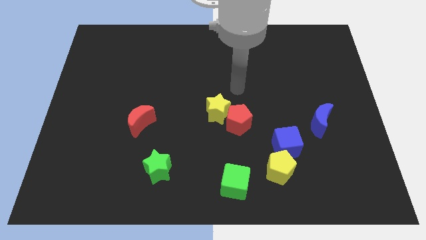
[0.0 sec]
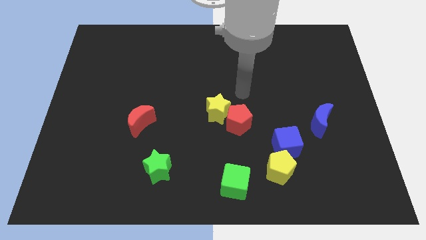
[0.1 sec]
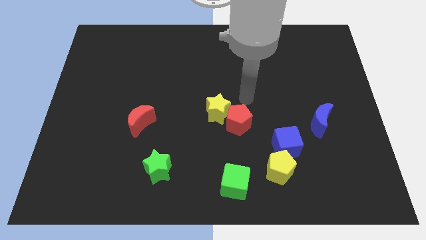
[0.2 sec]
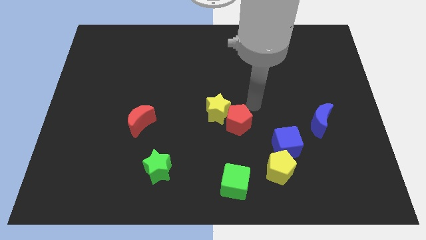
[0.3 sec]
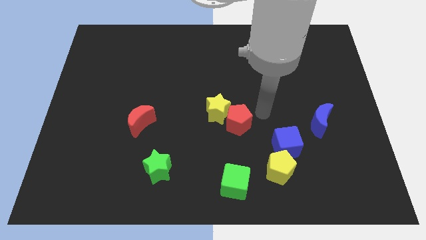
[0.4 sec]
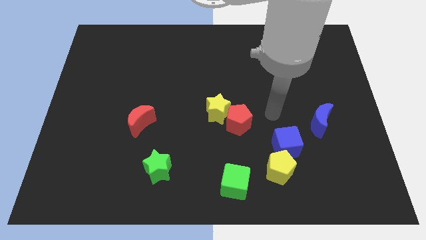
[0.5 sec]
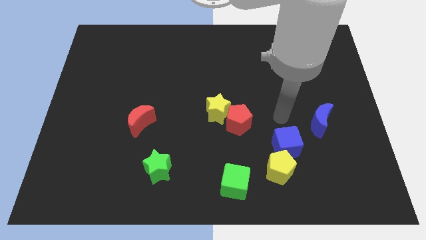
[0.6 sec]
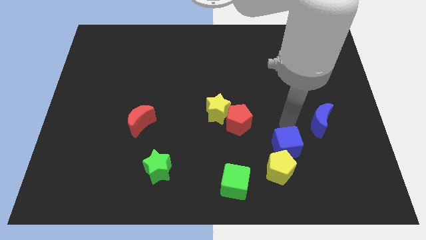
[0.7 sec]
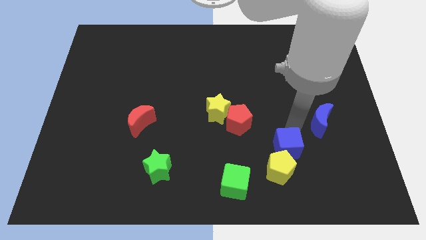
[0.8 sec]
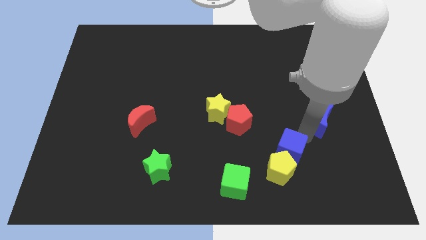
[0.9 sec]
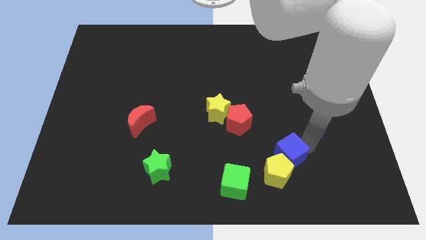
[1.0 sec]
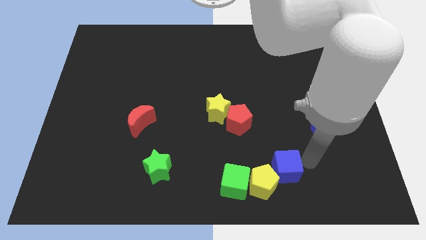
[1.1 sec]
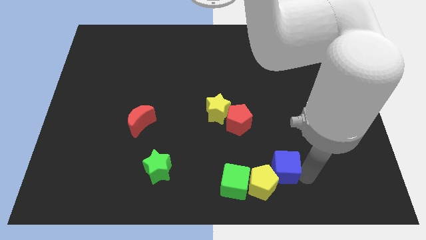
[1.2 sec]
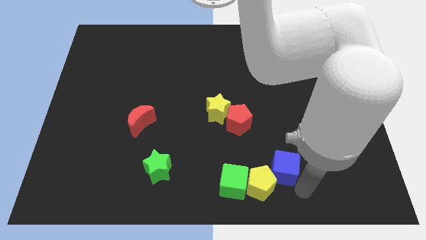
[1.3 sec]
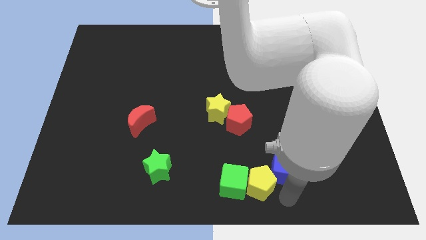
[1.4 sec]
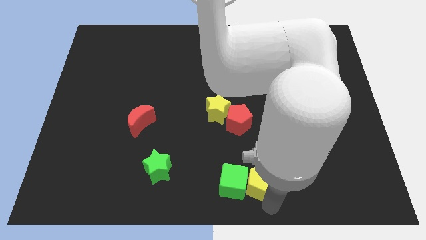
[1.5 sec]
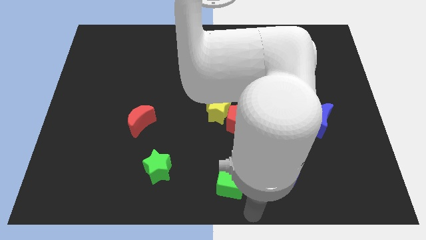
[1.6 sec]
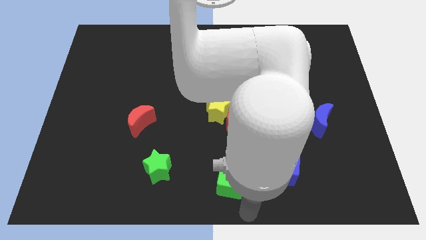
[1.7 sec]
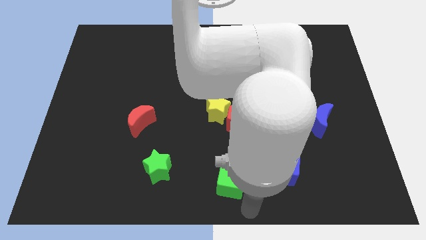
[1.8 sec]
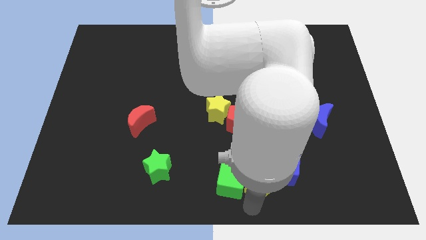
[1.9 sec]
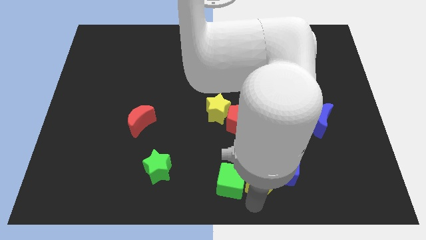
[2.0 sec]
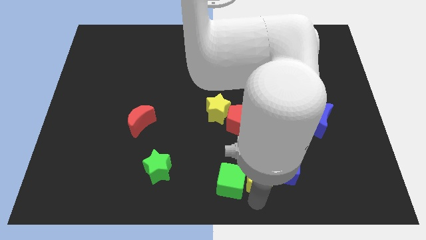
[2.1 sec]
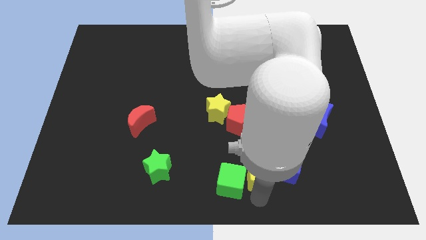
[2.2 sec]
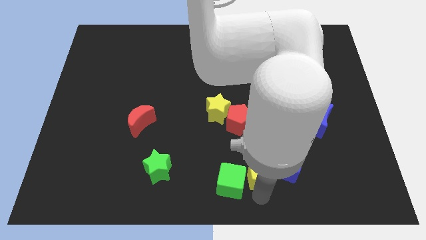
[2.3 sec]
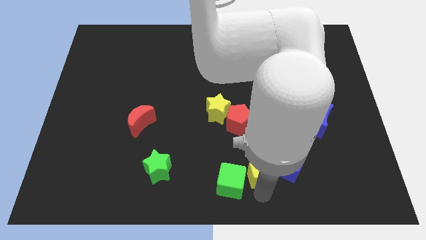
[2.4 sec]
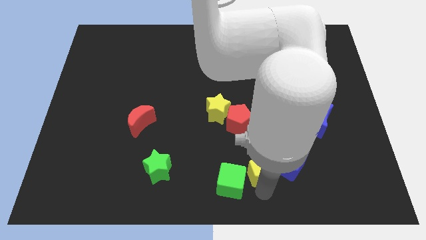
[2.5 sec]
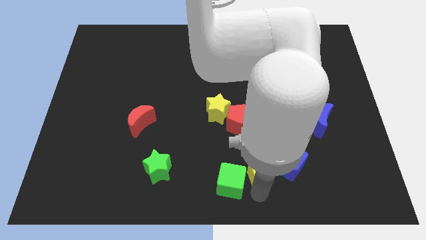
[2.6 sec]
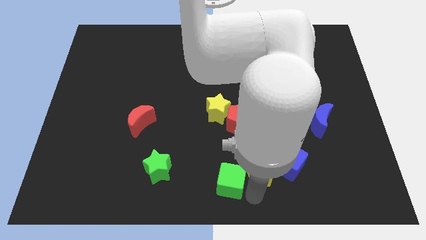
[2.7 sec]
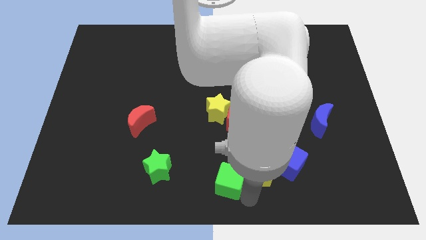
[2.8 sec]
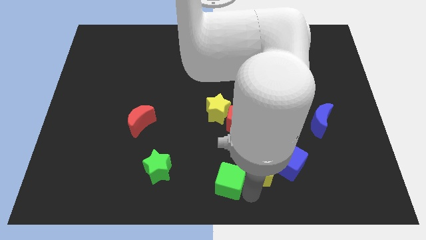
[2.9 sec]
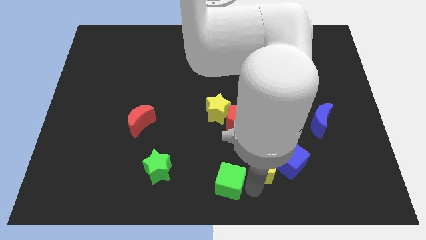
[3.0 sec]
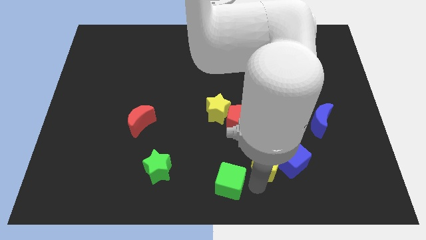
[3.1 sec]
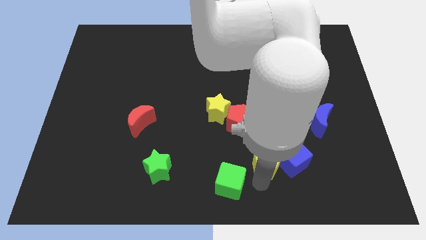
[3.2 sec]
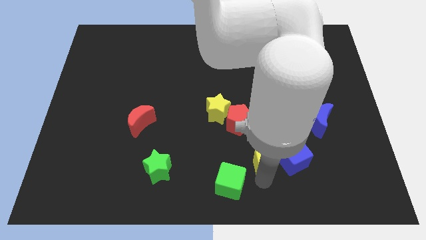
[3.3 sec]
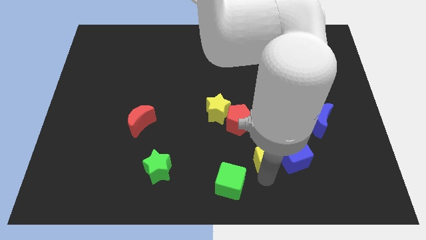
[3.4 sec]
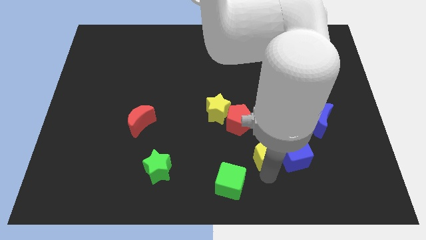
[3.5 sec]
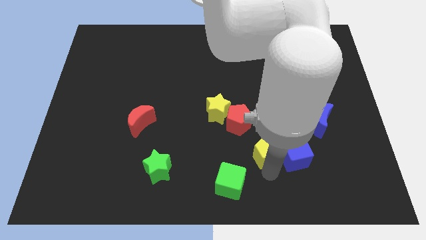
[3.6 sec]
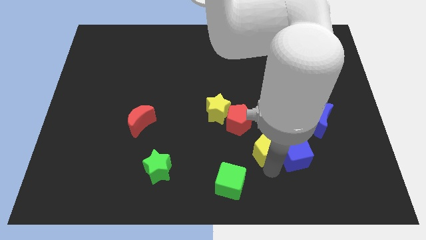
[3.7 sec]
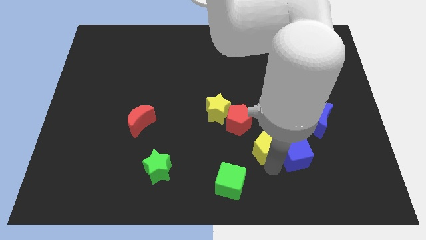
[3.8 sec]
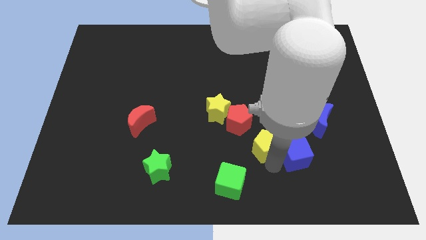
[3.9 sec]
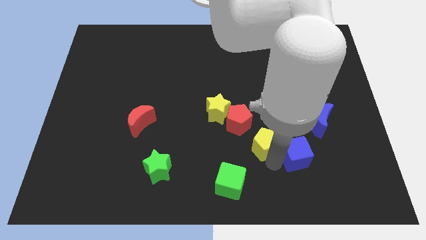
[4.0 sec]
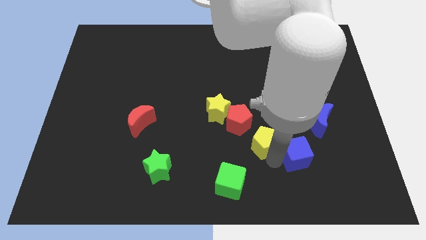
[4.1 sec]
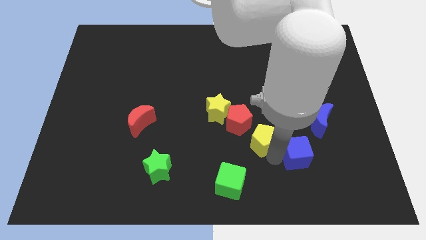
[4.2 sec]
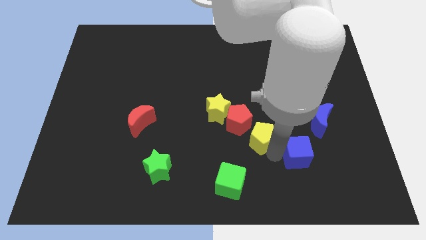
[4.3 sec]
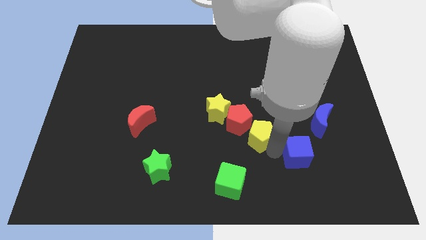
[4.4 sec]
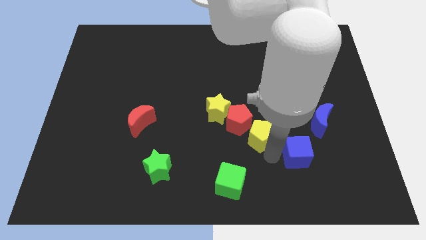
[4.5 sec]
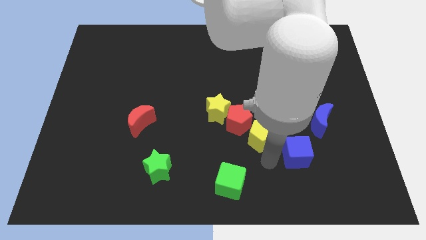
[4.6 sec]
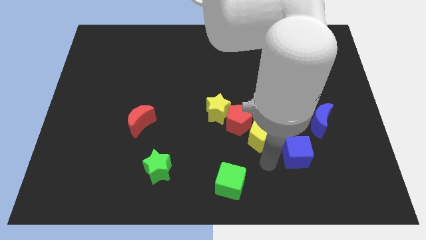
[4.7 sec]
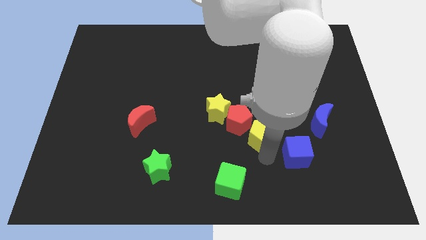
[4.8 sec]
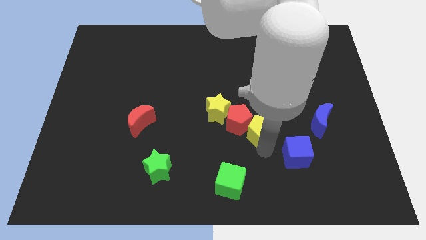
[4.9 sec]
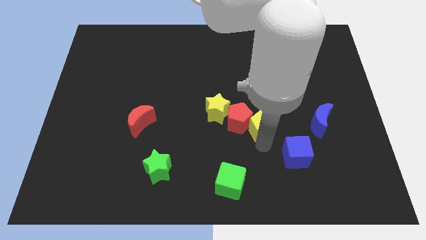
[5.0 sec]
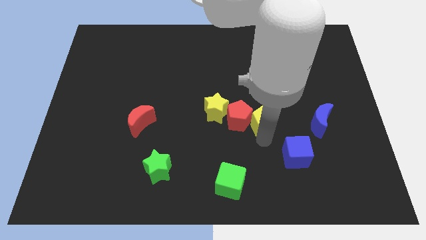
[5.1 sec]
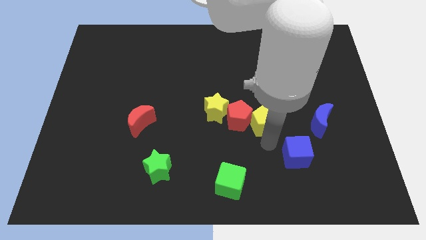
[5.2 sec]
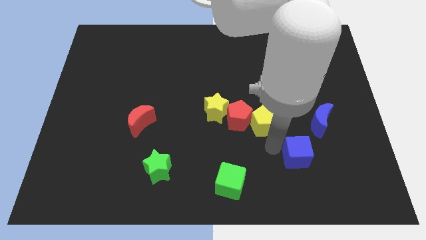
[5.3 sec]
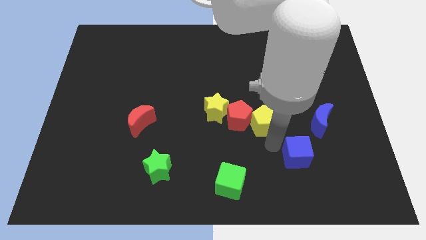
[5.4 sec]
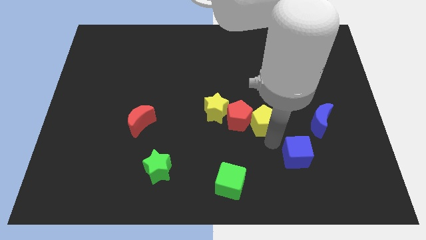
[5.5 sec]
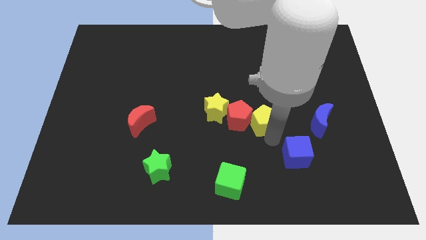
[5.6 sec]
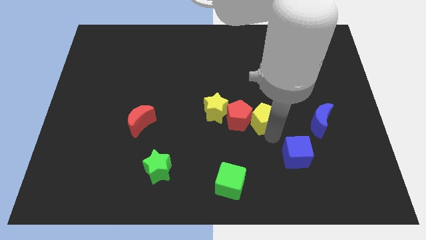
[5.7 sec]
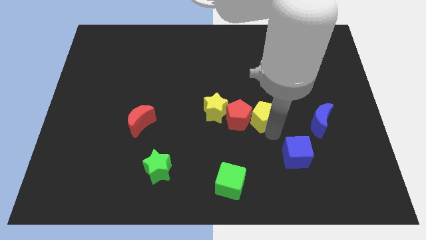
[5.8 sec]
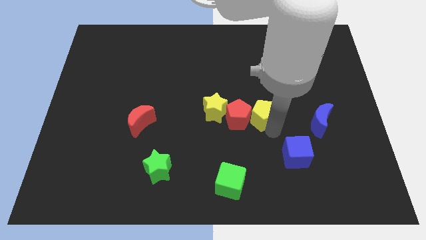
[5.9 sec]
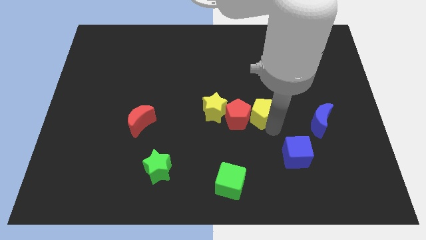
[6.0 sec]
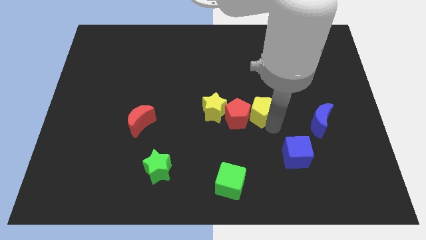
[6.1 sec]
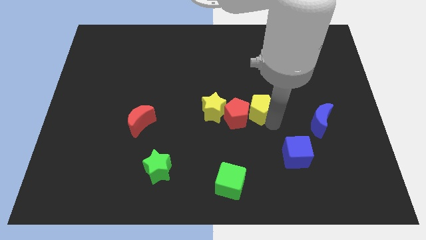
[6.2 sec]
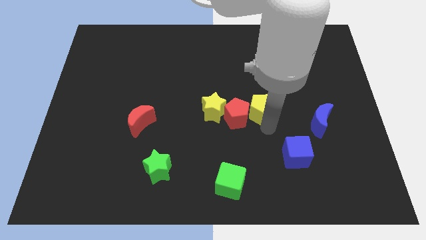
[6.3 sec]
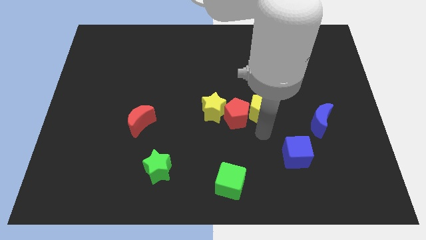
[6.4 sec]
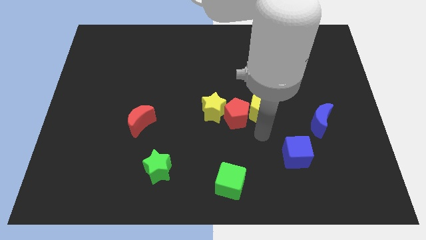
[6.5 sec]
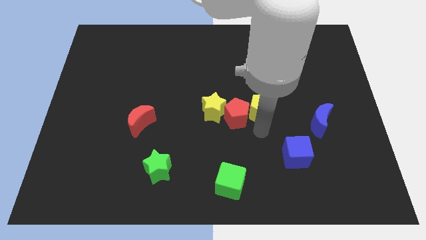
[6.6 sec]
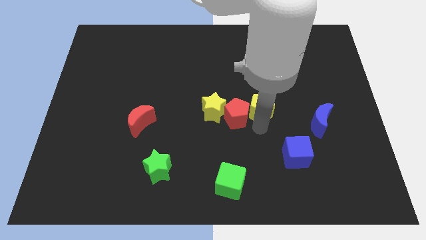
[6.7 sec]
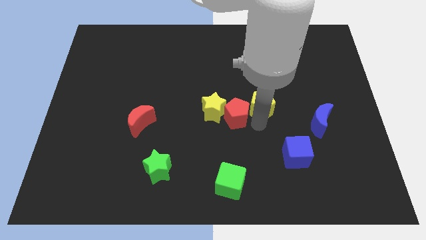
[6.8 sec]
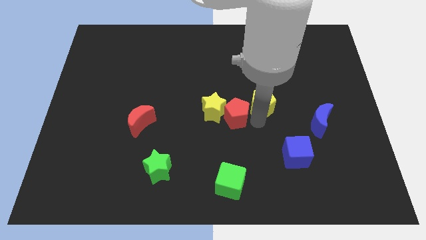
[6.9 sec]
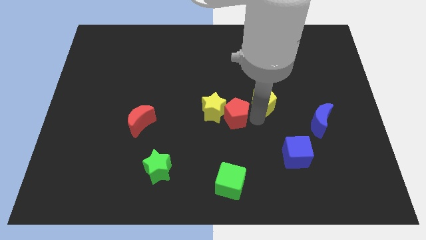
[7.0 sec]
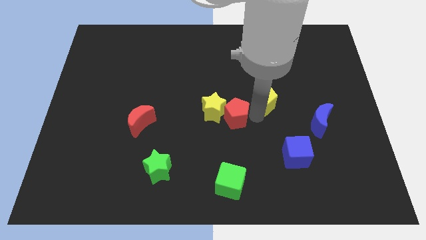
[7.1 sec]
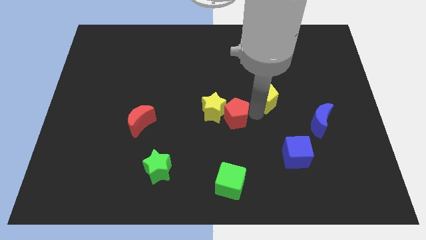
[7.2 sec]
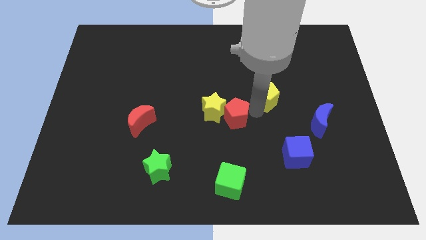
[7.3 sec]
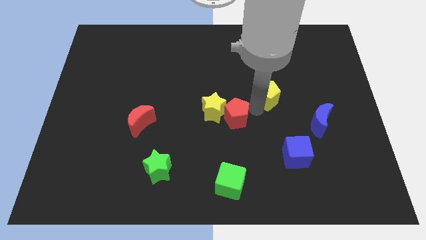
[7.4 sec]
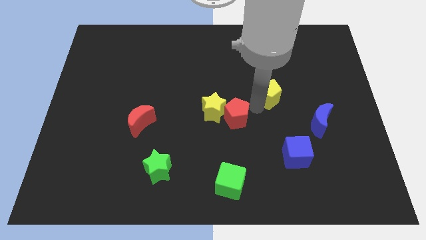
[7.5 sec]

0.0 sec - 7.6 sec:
move the yellow pentagon up
